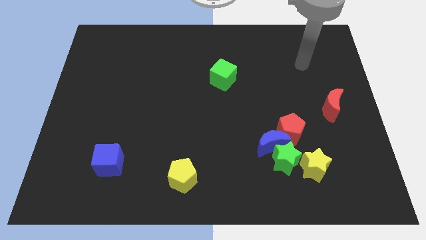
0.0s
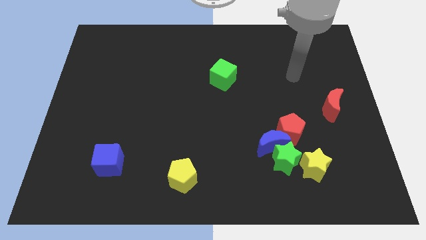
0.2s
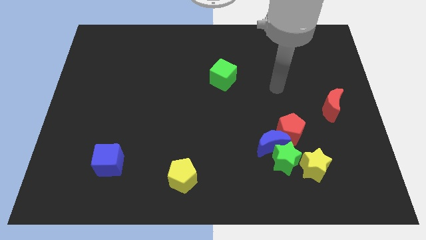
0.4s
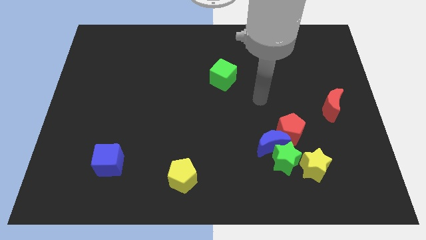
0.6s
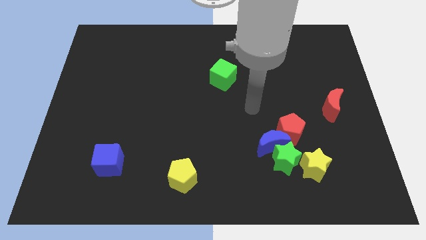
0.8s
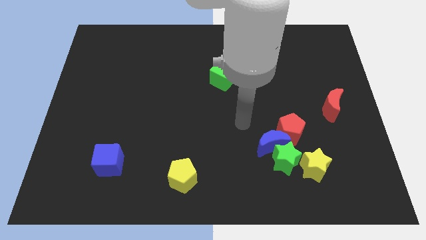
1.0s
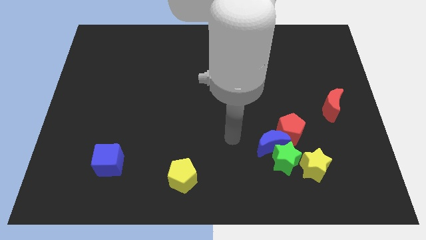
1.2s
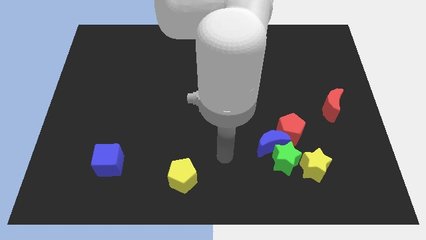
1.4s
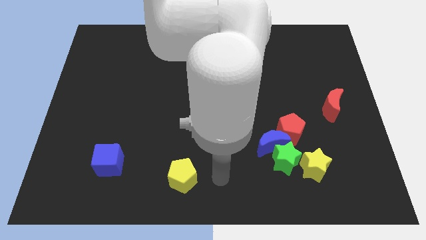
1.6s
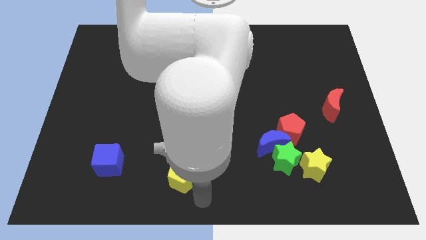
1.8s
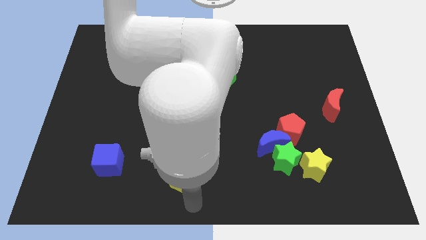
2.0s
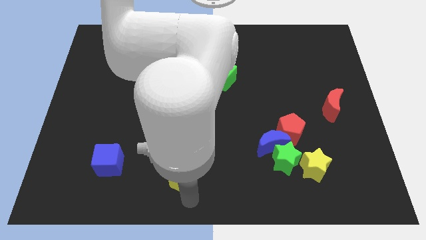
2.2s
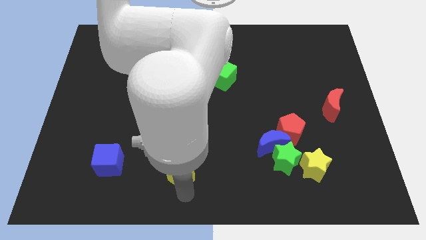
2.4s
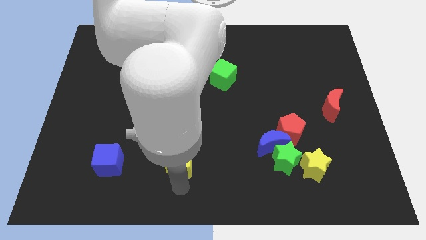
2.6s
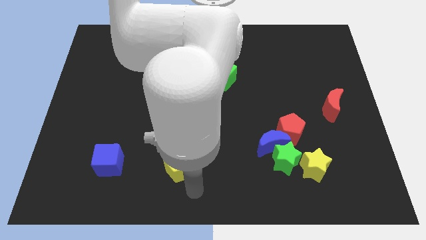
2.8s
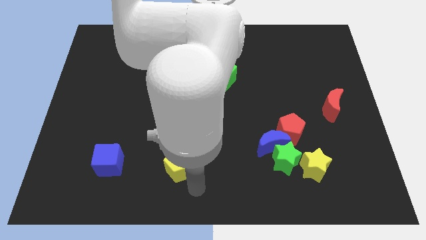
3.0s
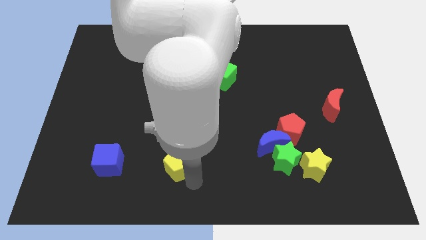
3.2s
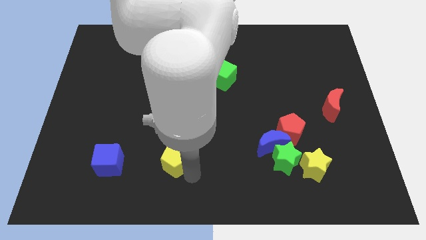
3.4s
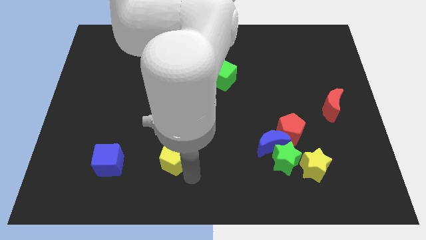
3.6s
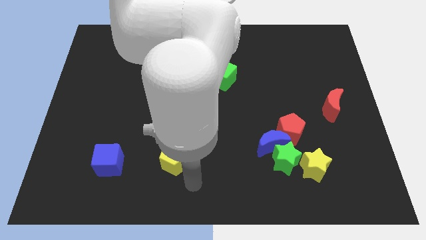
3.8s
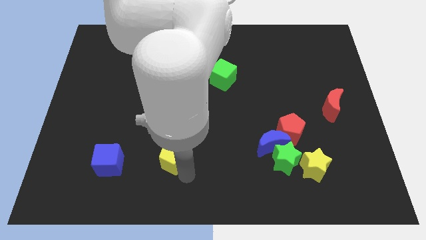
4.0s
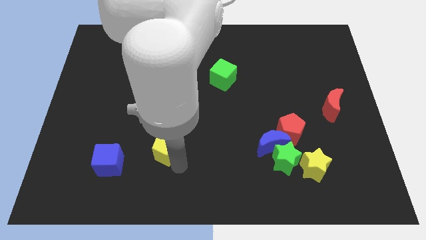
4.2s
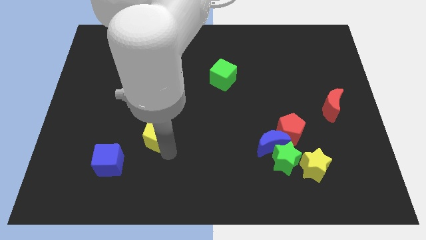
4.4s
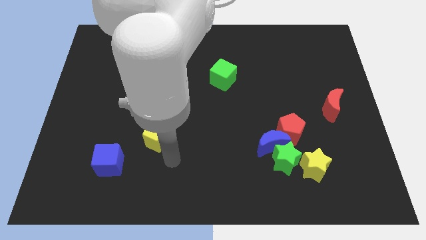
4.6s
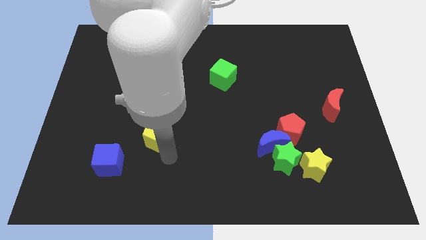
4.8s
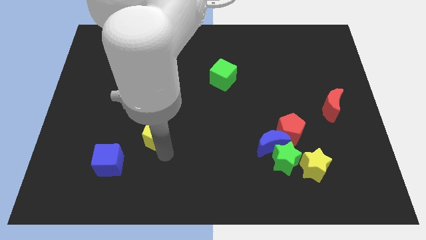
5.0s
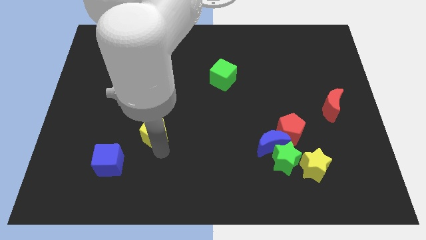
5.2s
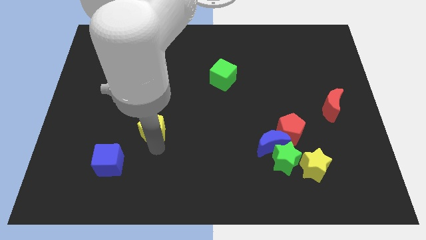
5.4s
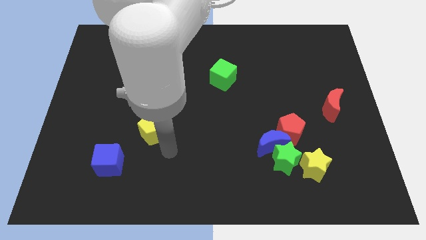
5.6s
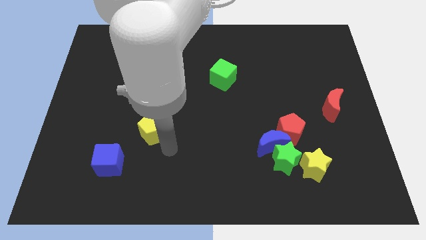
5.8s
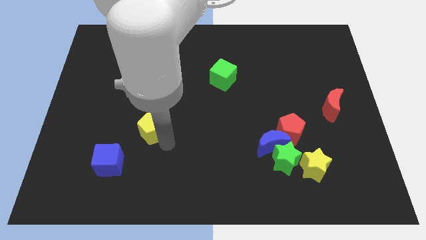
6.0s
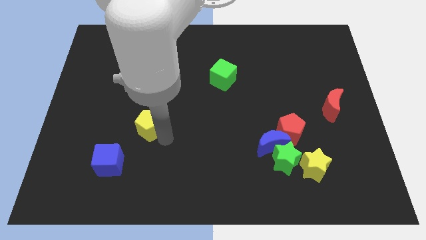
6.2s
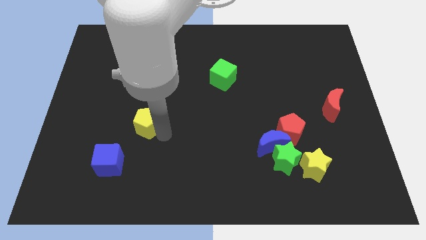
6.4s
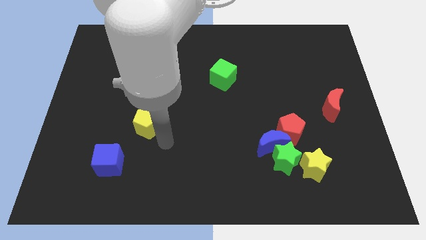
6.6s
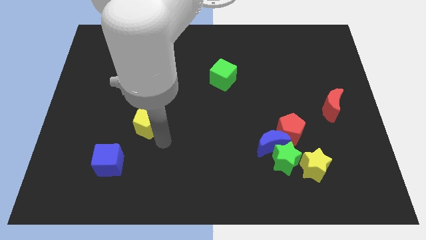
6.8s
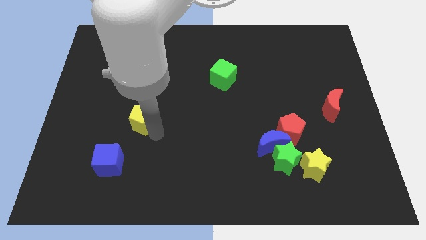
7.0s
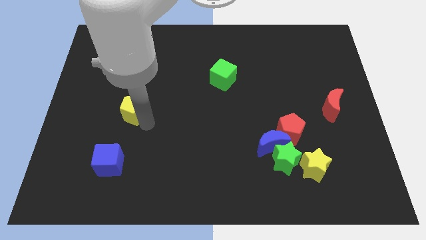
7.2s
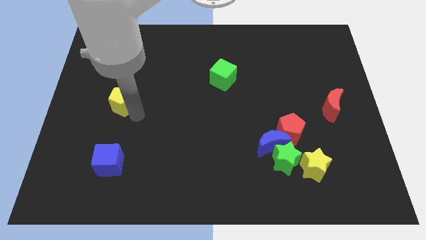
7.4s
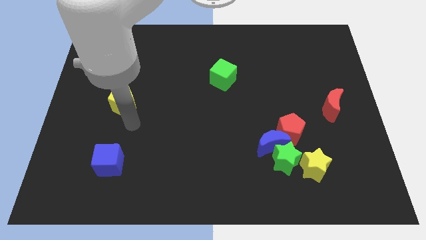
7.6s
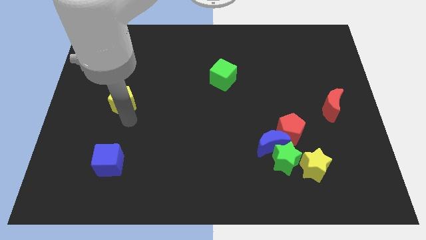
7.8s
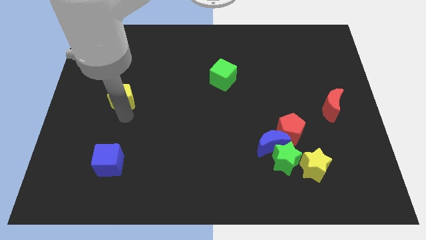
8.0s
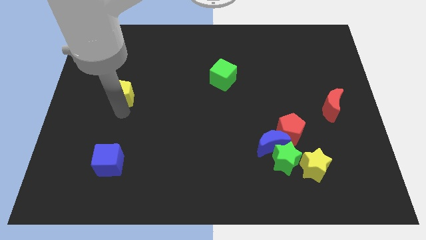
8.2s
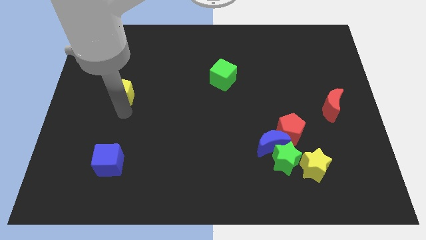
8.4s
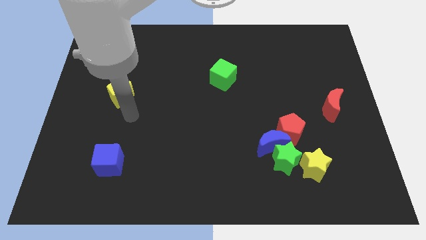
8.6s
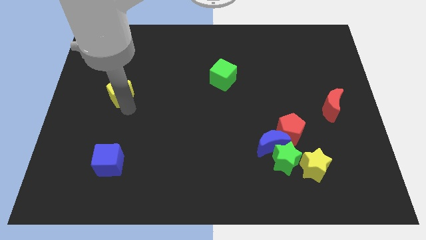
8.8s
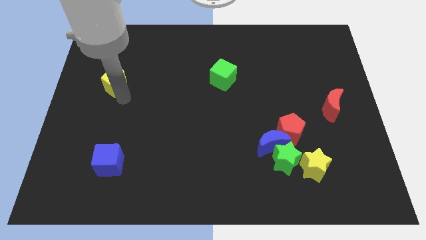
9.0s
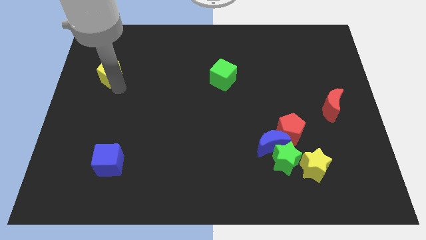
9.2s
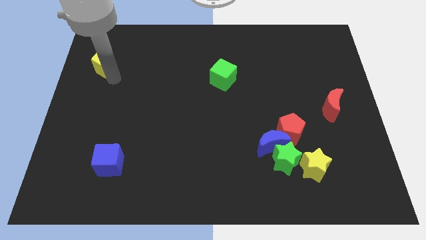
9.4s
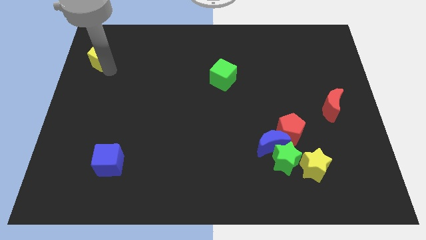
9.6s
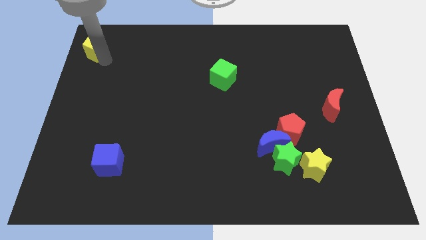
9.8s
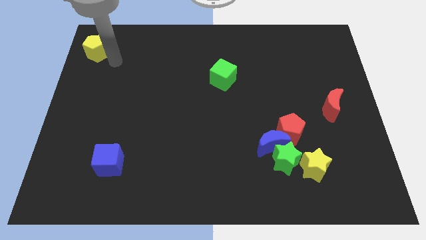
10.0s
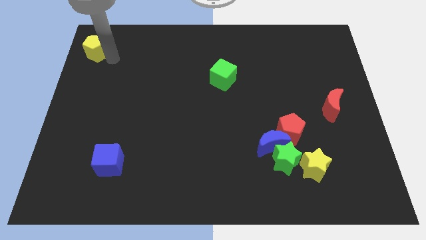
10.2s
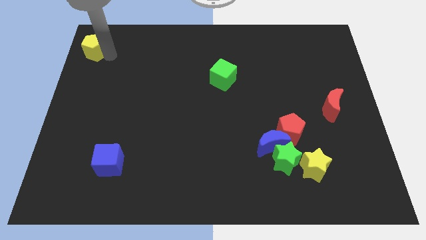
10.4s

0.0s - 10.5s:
move the yellow pentagon to the upper left corner

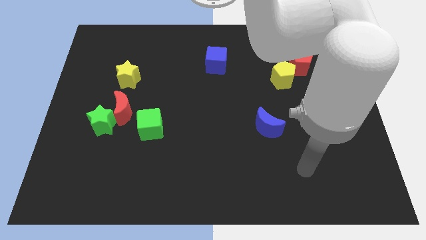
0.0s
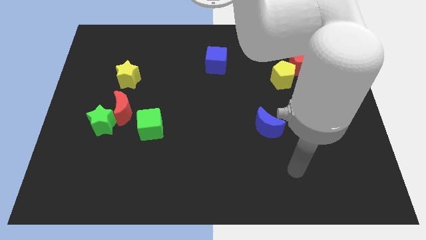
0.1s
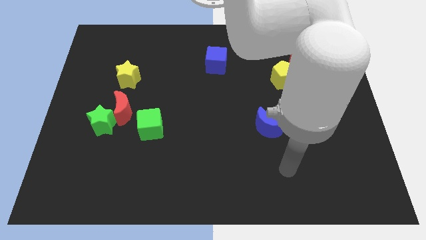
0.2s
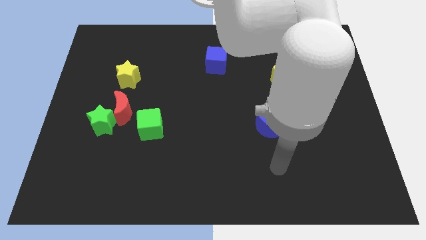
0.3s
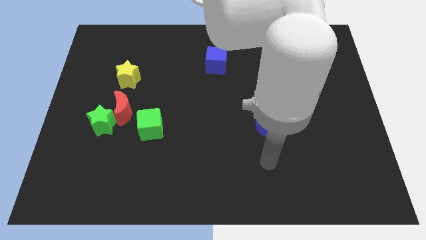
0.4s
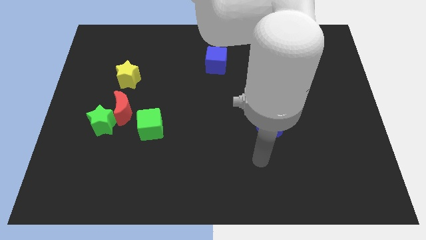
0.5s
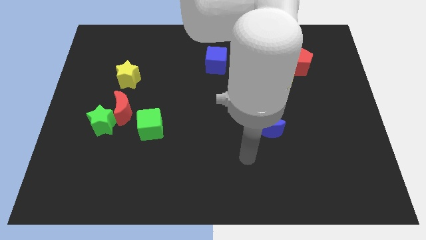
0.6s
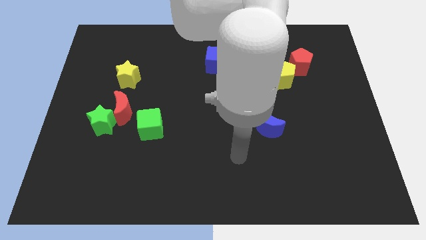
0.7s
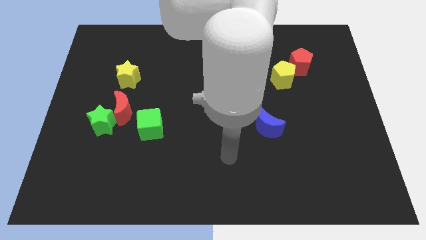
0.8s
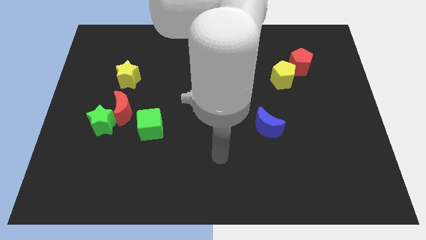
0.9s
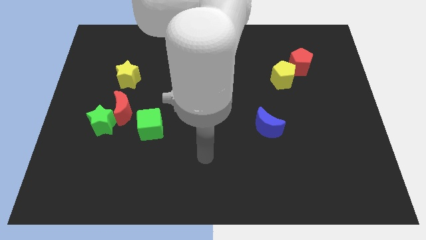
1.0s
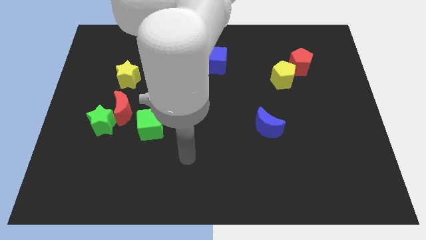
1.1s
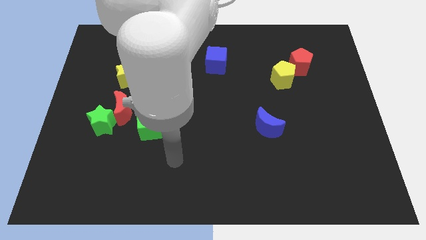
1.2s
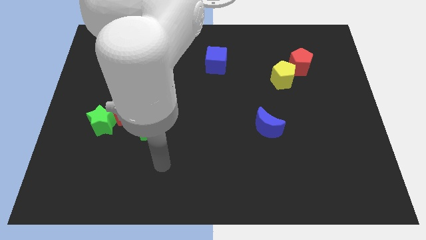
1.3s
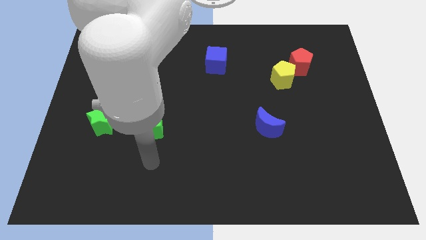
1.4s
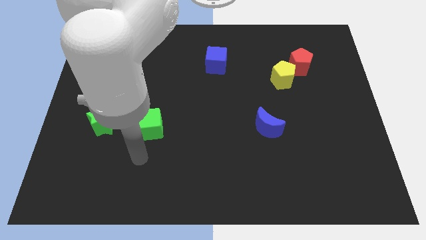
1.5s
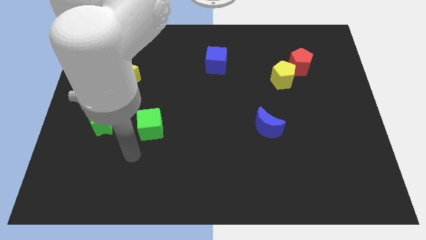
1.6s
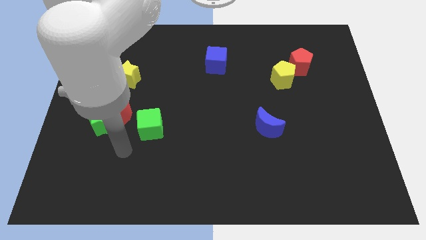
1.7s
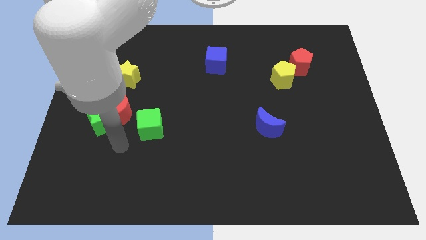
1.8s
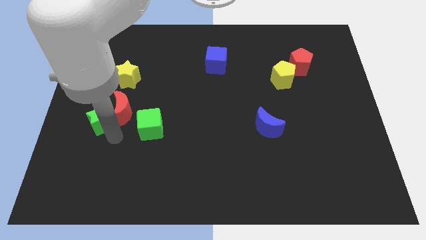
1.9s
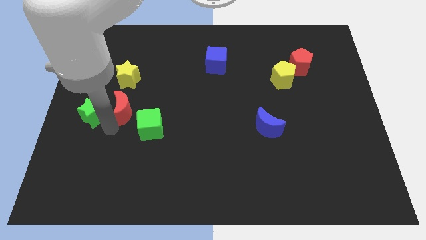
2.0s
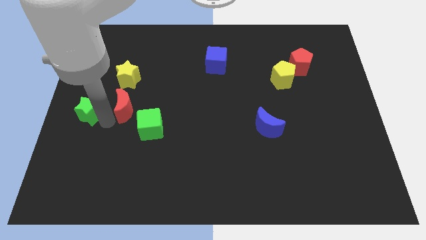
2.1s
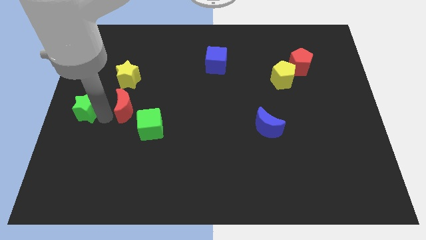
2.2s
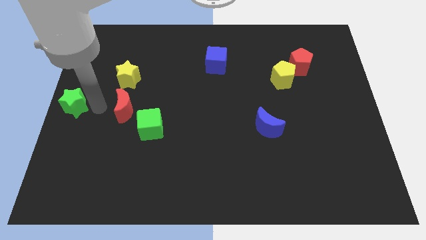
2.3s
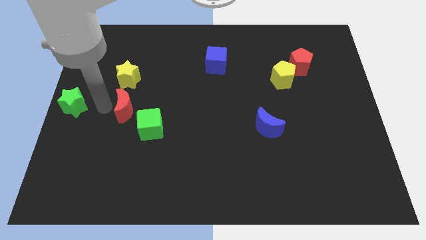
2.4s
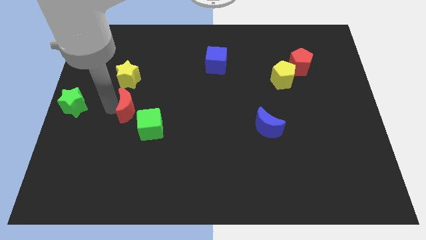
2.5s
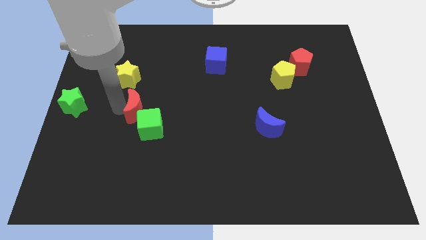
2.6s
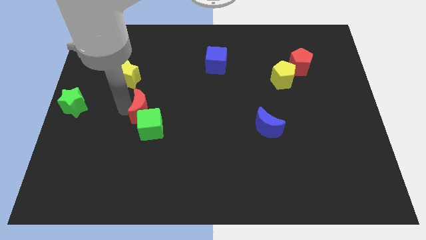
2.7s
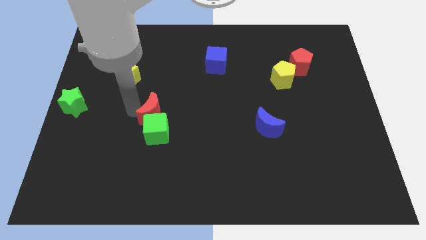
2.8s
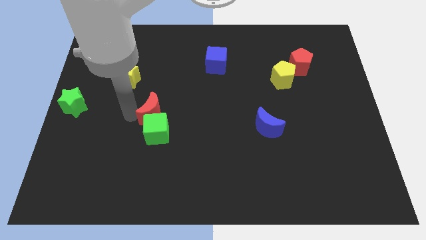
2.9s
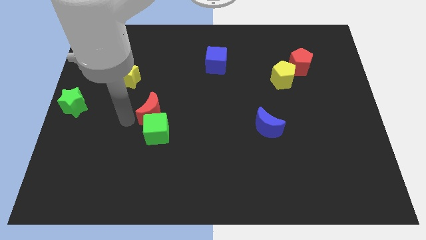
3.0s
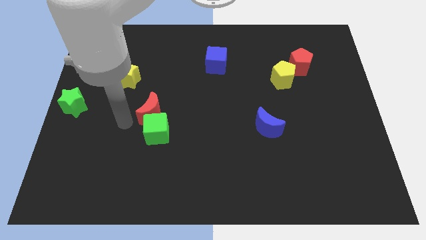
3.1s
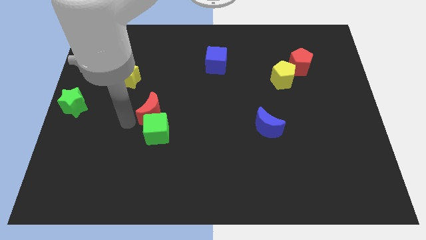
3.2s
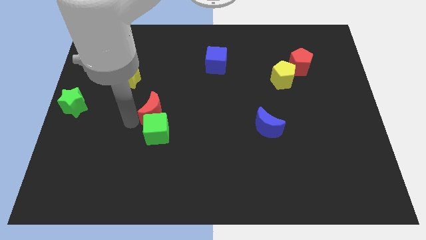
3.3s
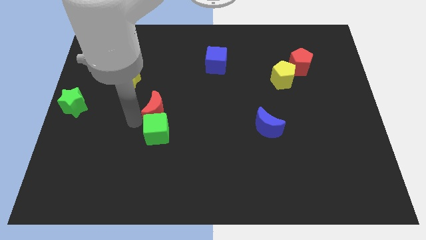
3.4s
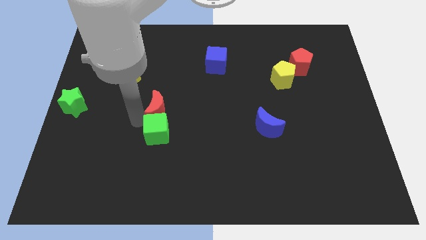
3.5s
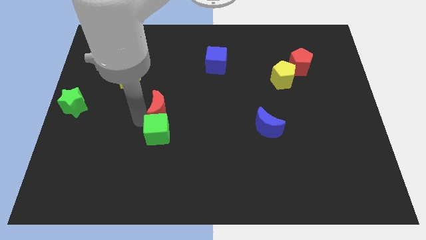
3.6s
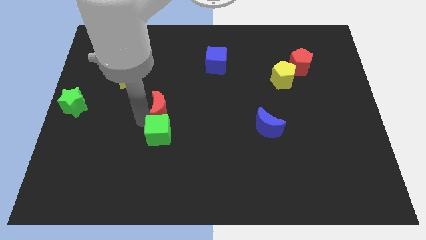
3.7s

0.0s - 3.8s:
put the red moon to the middle of the board
